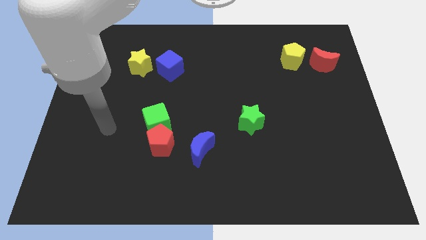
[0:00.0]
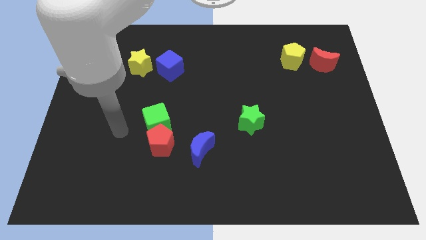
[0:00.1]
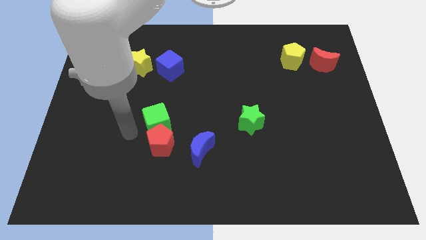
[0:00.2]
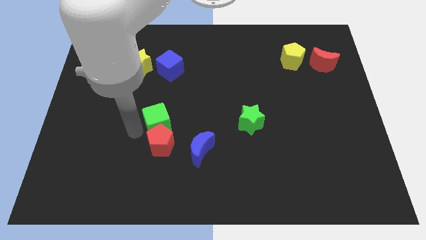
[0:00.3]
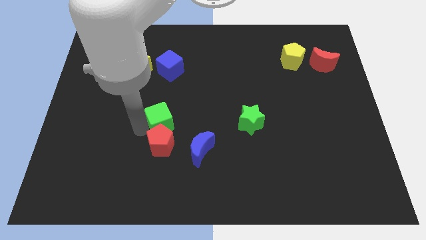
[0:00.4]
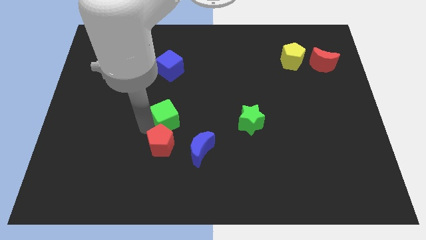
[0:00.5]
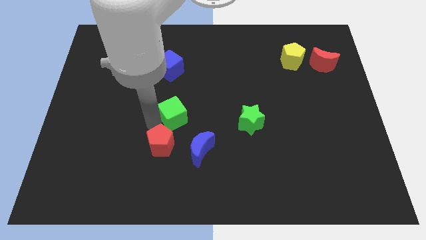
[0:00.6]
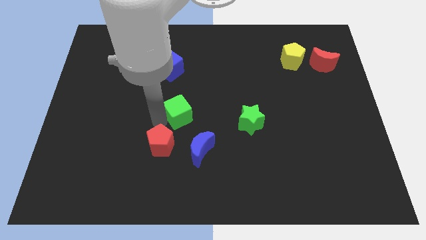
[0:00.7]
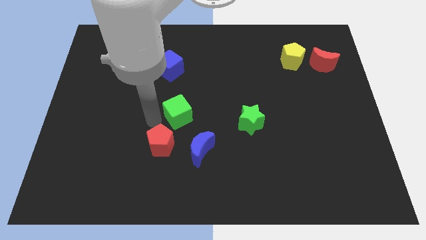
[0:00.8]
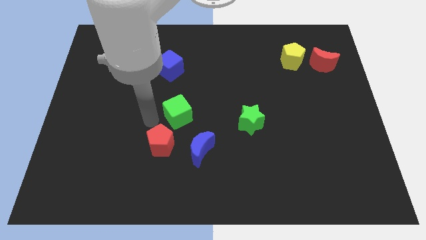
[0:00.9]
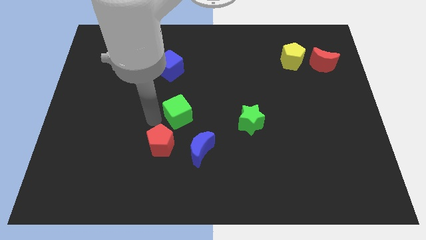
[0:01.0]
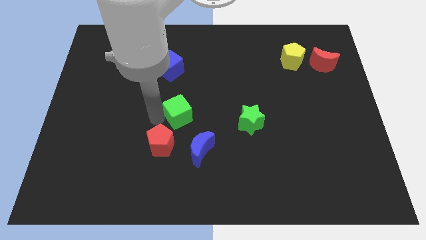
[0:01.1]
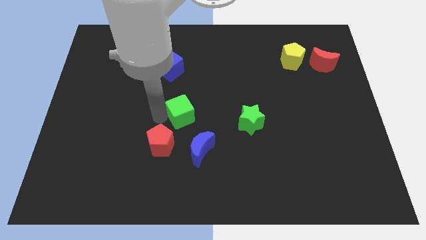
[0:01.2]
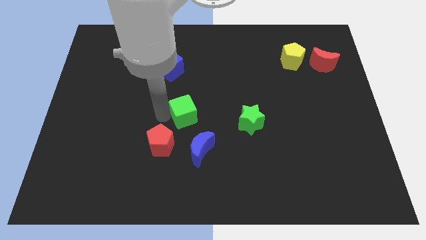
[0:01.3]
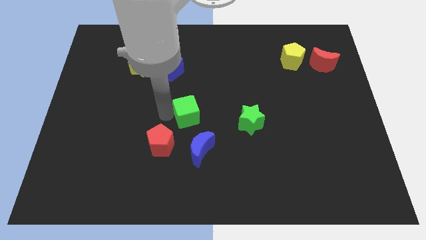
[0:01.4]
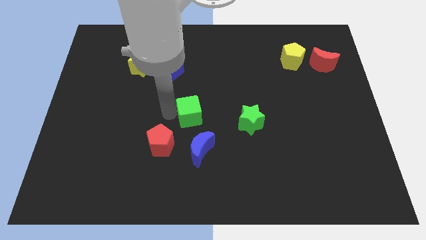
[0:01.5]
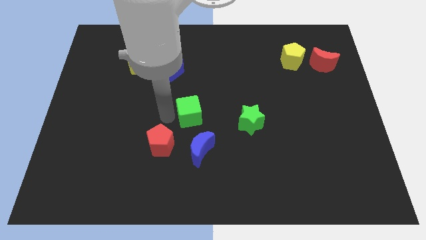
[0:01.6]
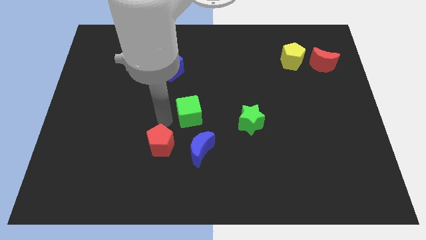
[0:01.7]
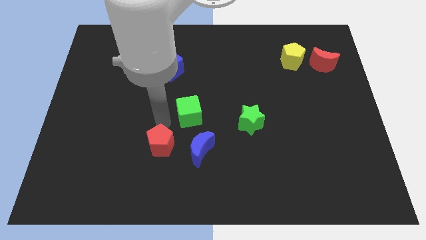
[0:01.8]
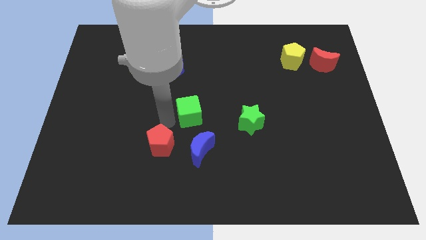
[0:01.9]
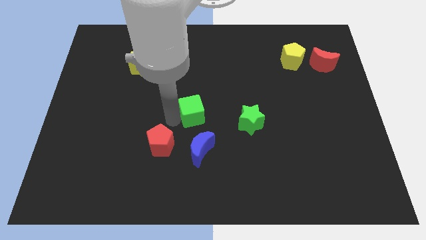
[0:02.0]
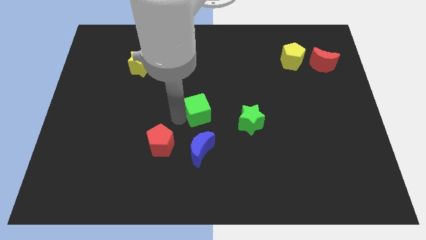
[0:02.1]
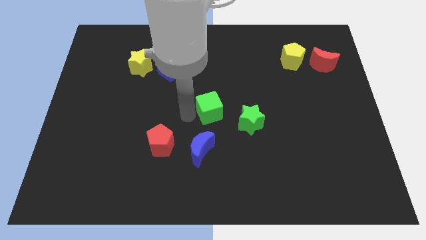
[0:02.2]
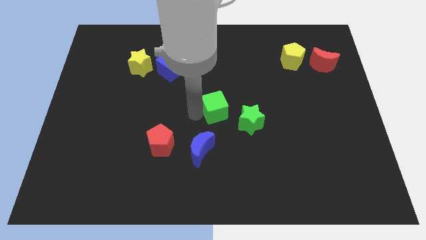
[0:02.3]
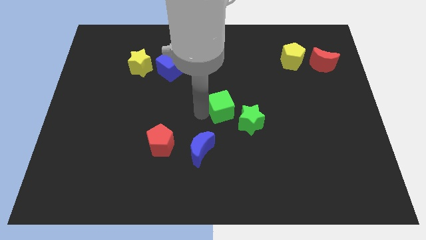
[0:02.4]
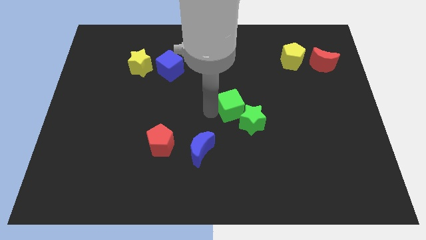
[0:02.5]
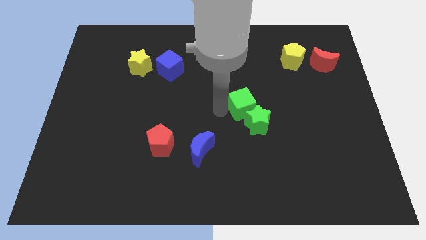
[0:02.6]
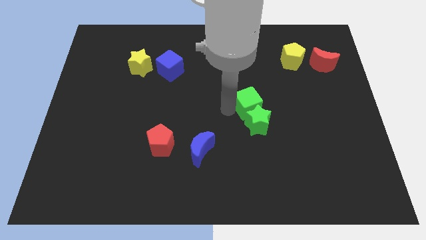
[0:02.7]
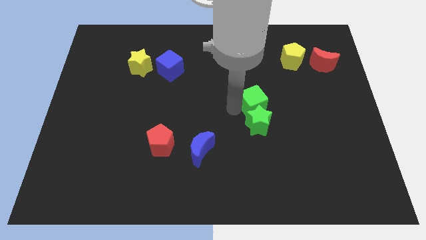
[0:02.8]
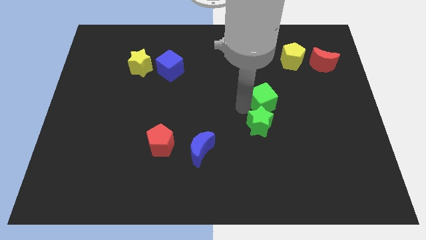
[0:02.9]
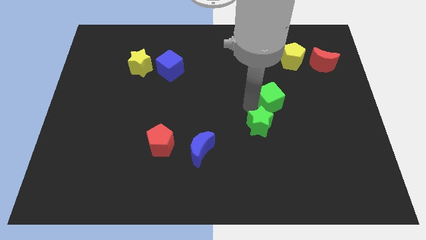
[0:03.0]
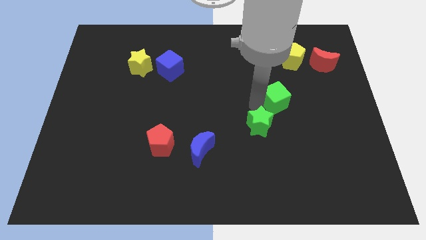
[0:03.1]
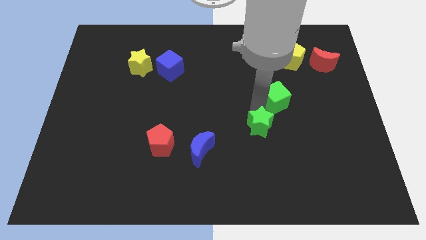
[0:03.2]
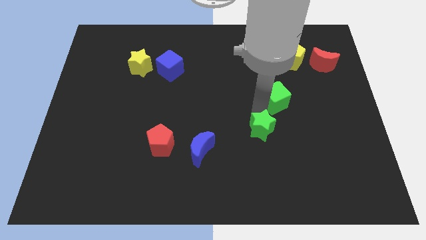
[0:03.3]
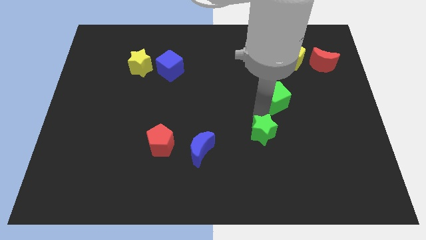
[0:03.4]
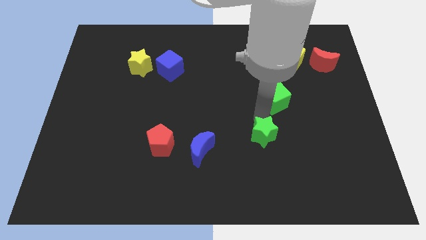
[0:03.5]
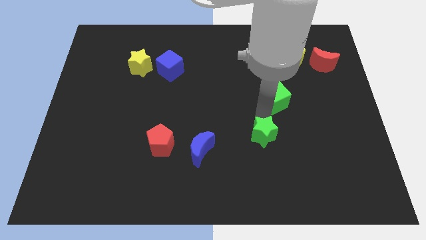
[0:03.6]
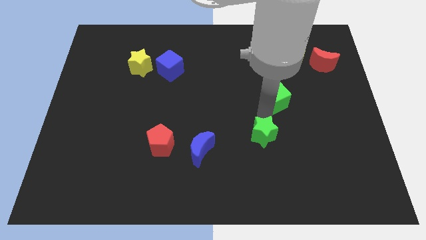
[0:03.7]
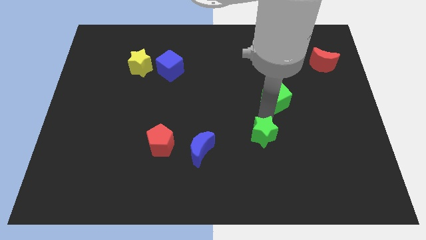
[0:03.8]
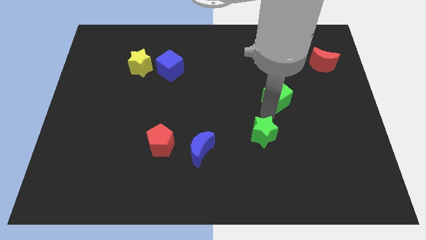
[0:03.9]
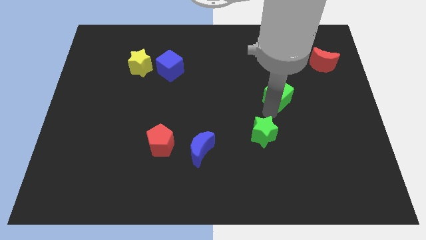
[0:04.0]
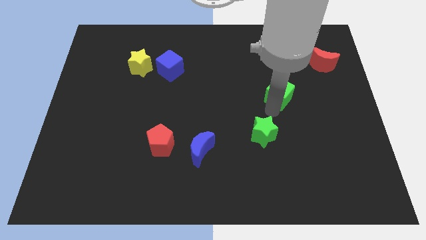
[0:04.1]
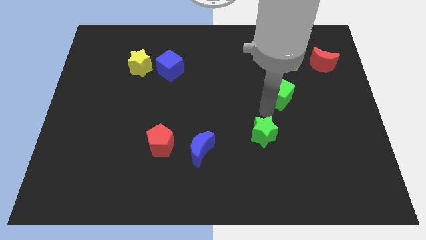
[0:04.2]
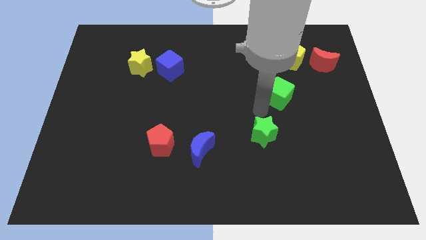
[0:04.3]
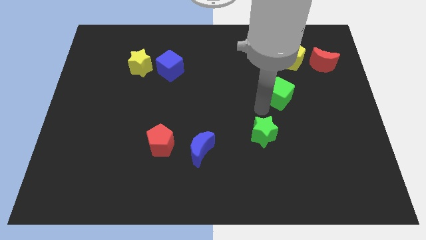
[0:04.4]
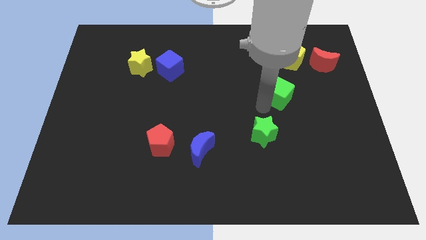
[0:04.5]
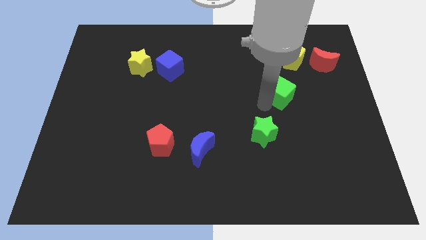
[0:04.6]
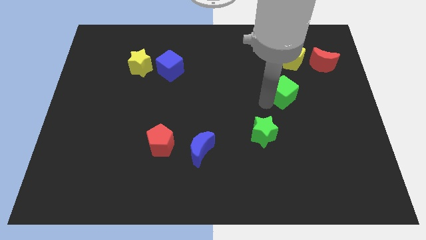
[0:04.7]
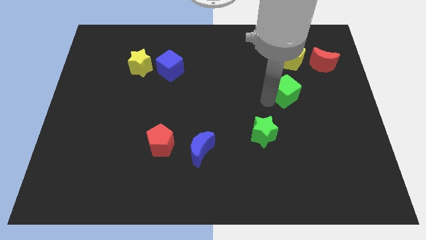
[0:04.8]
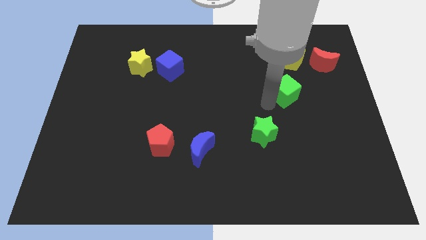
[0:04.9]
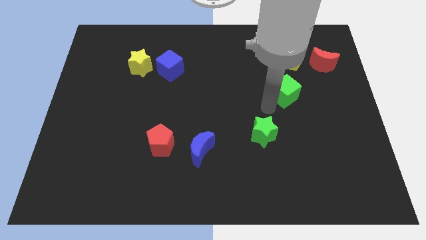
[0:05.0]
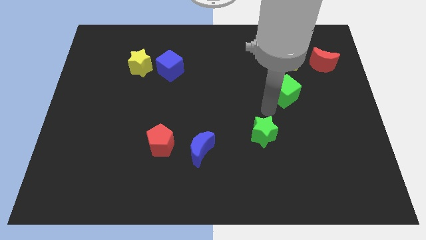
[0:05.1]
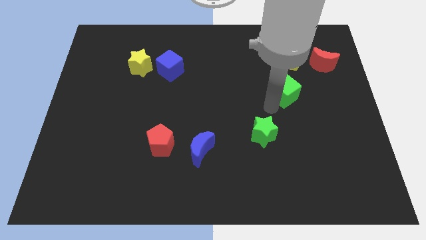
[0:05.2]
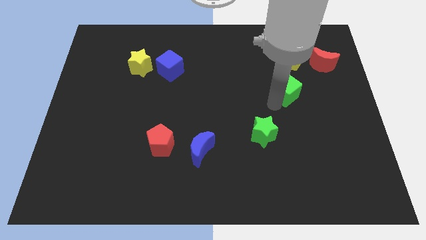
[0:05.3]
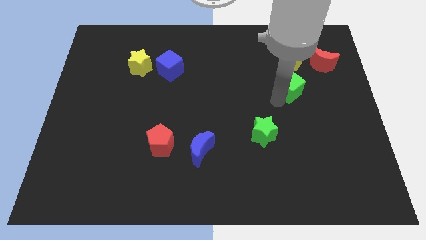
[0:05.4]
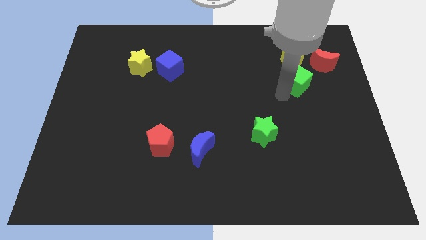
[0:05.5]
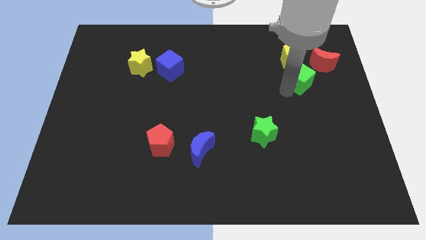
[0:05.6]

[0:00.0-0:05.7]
put the green cube to the bottom right side of the yellow pentagon

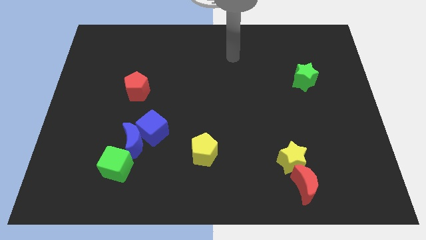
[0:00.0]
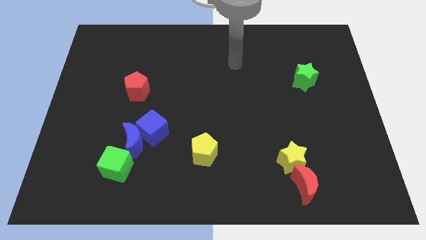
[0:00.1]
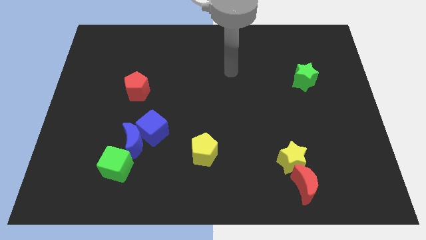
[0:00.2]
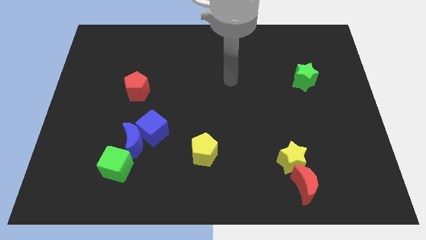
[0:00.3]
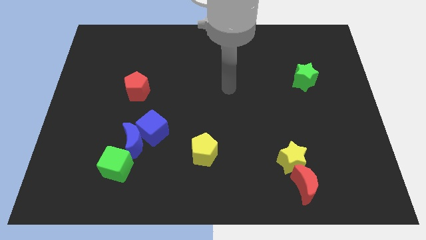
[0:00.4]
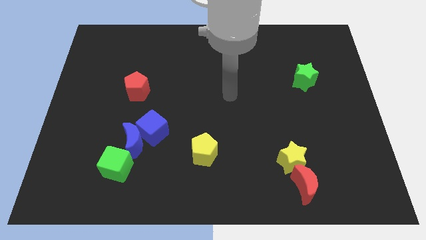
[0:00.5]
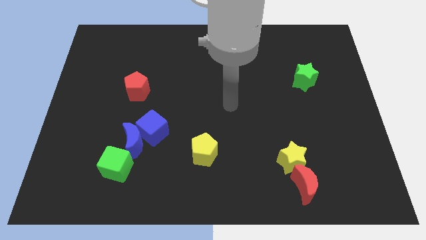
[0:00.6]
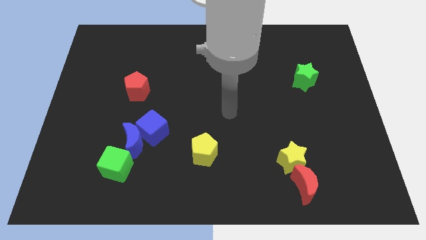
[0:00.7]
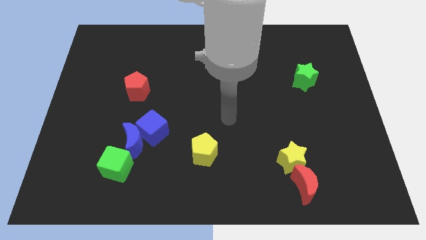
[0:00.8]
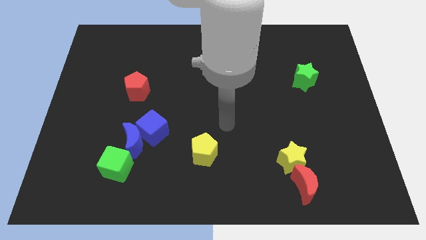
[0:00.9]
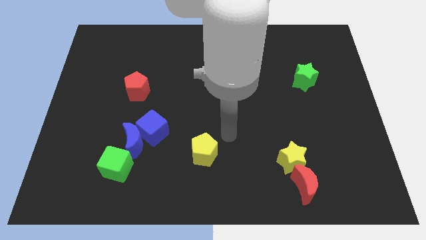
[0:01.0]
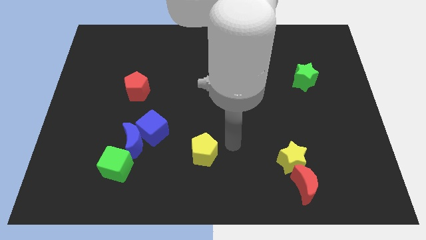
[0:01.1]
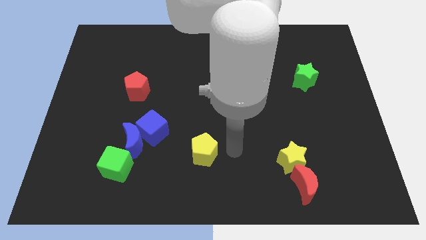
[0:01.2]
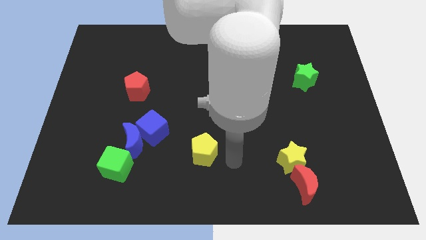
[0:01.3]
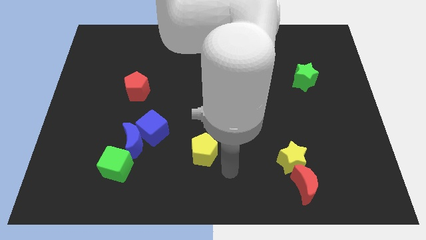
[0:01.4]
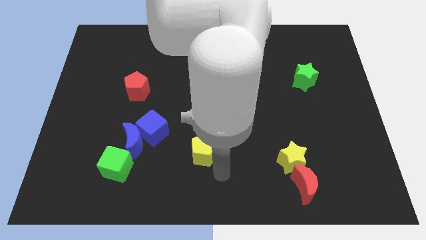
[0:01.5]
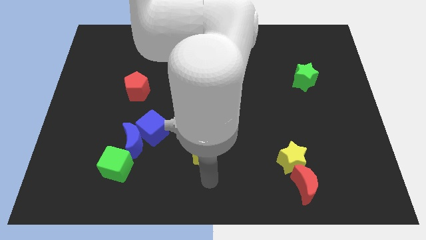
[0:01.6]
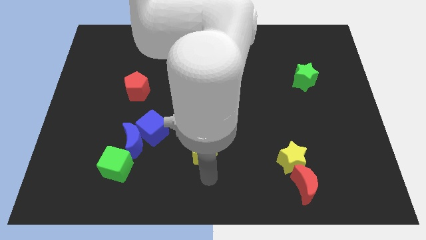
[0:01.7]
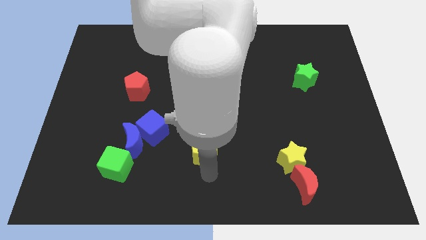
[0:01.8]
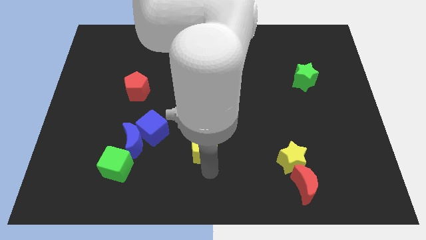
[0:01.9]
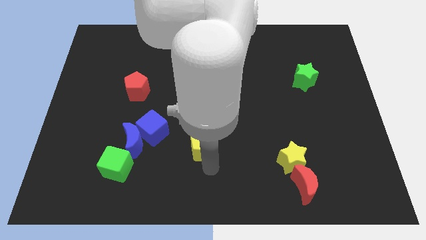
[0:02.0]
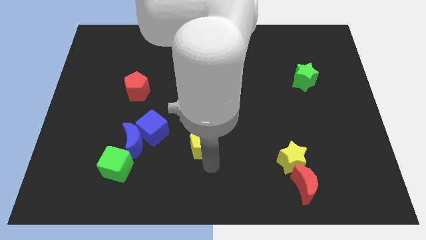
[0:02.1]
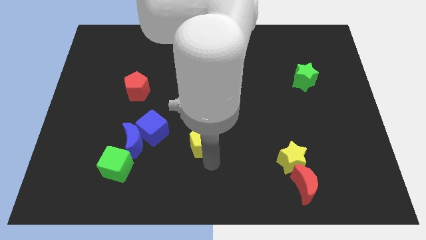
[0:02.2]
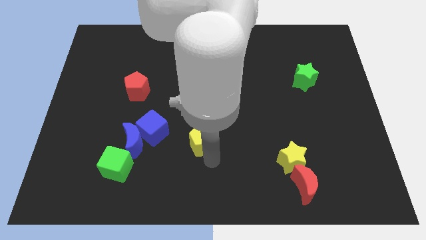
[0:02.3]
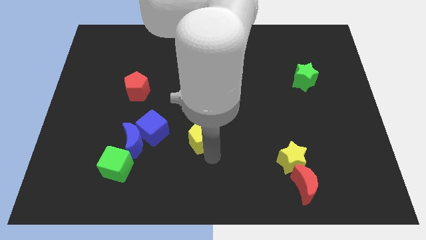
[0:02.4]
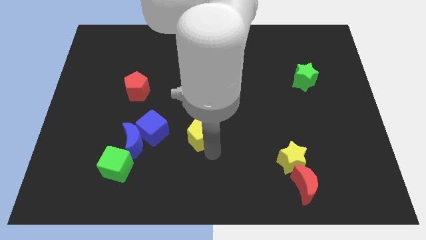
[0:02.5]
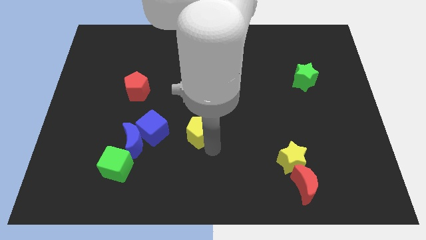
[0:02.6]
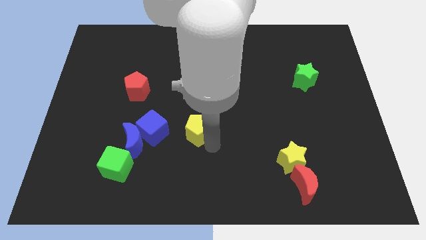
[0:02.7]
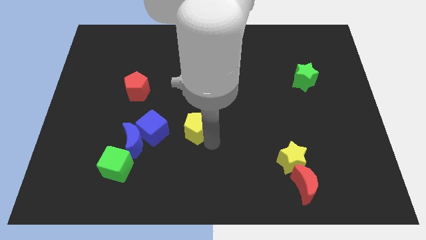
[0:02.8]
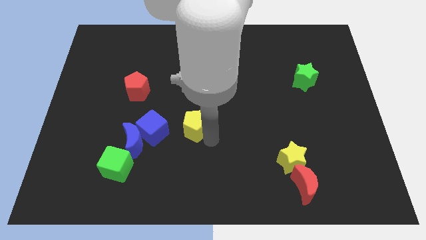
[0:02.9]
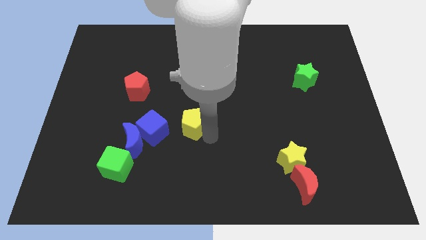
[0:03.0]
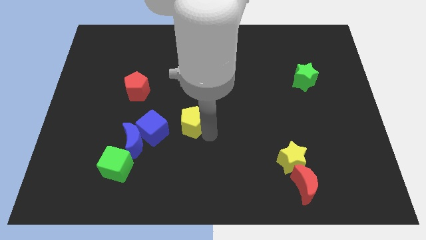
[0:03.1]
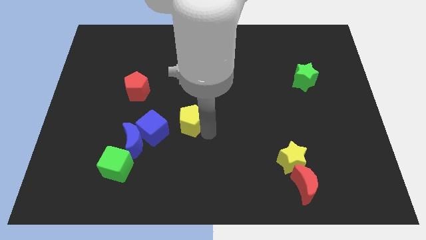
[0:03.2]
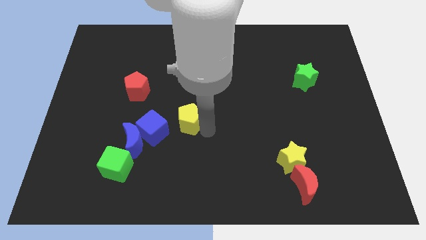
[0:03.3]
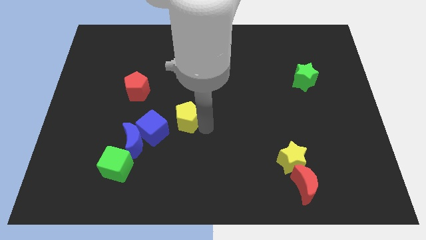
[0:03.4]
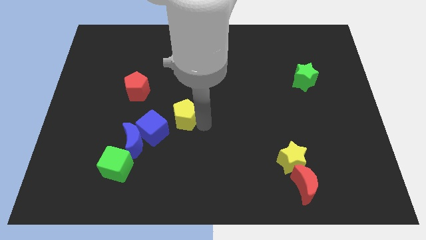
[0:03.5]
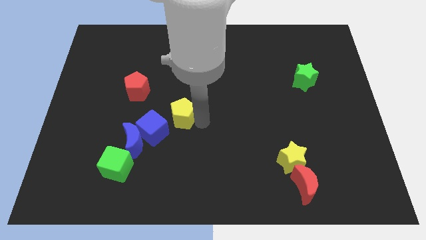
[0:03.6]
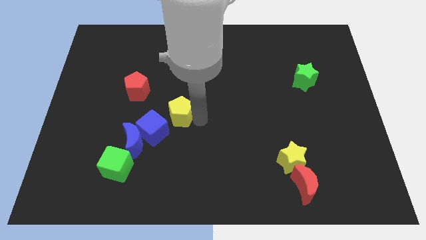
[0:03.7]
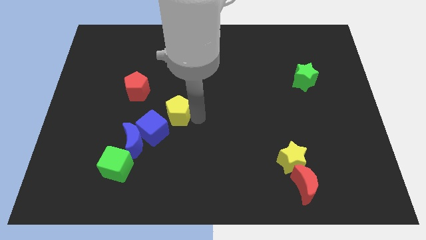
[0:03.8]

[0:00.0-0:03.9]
slide the yellow pentagon diagonally down and to the right of the red pentagon
